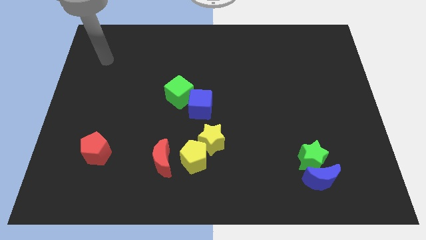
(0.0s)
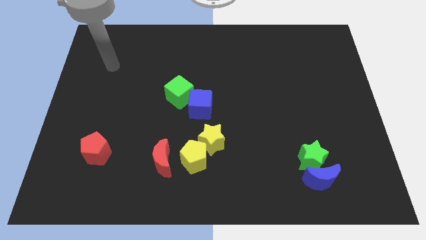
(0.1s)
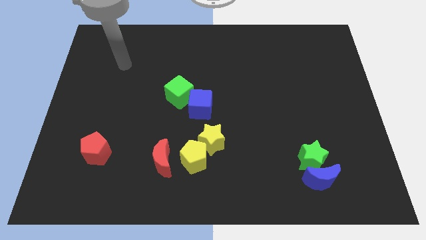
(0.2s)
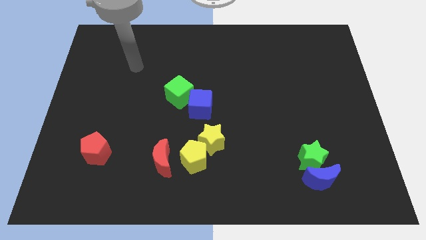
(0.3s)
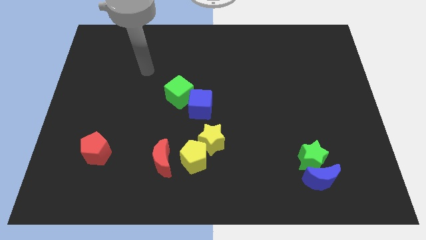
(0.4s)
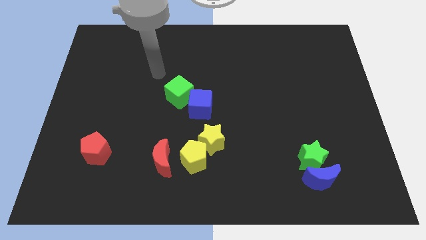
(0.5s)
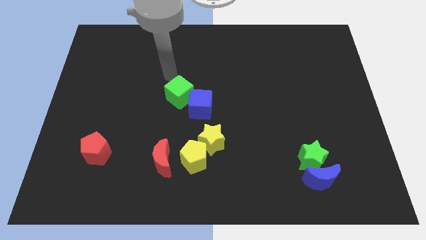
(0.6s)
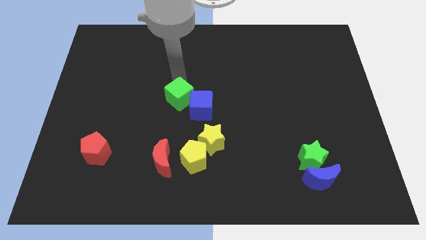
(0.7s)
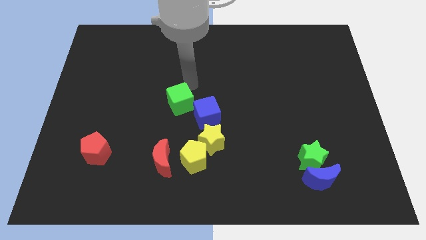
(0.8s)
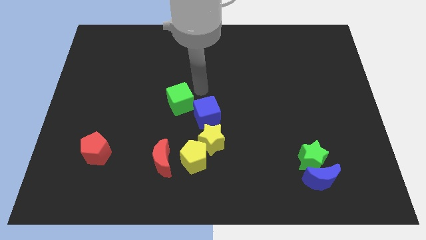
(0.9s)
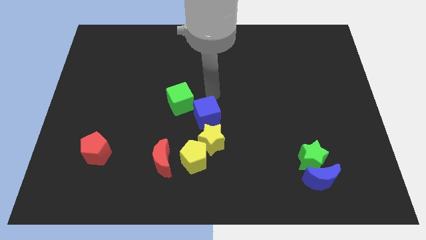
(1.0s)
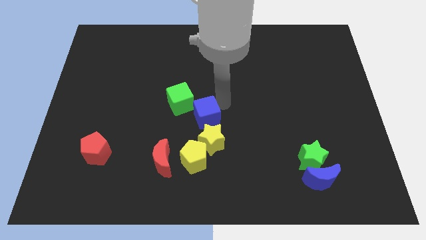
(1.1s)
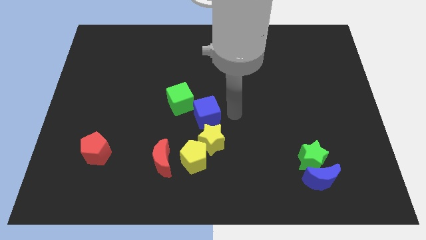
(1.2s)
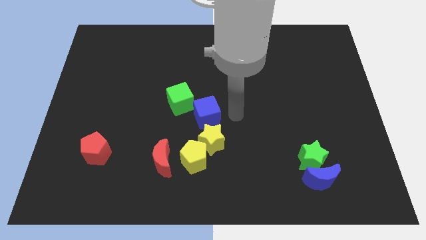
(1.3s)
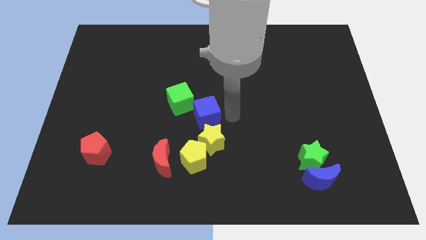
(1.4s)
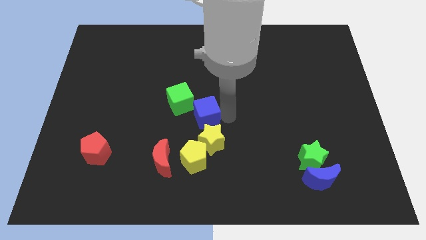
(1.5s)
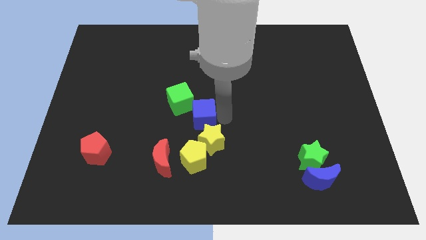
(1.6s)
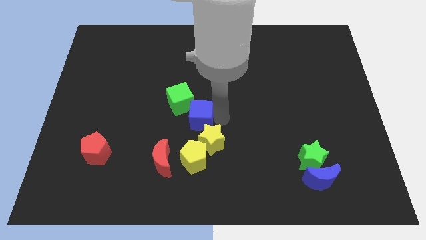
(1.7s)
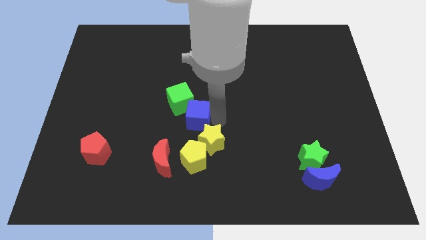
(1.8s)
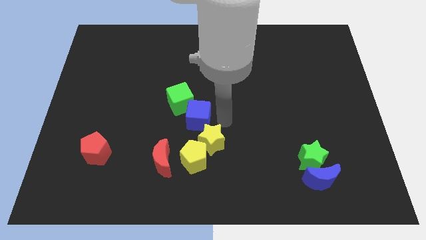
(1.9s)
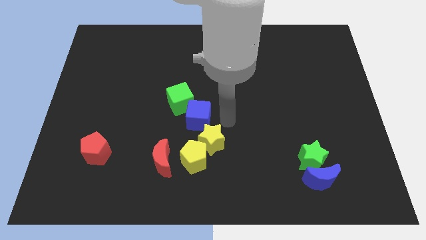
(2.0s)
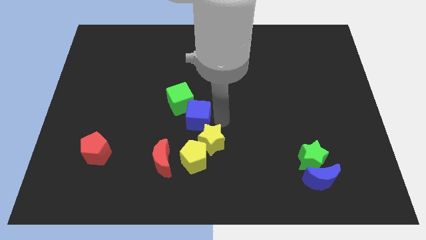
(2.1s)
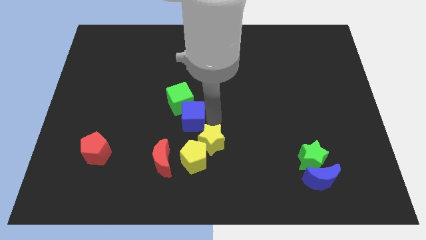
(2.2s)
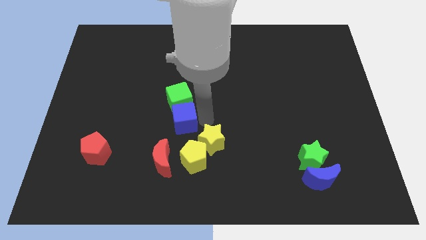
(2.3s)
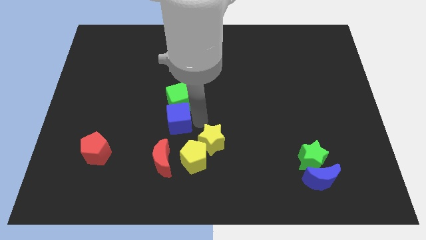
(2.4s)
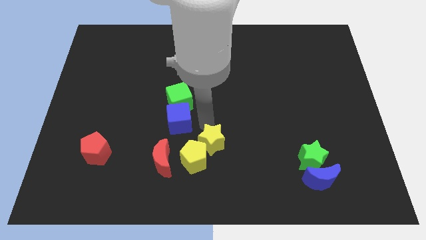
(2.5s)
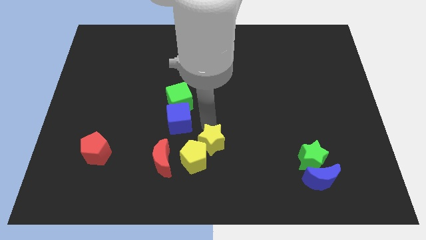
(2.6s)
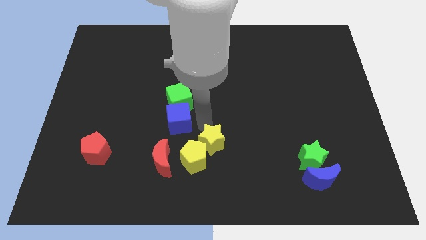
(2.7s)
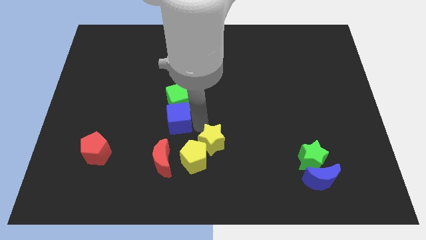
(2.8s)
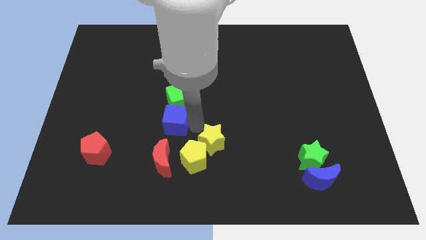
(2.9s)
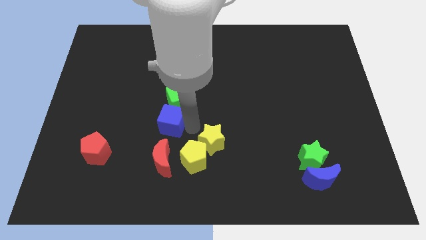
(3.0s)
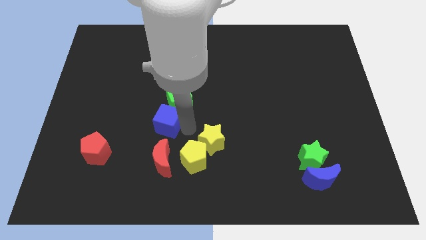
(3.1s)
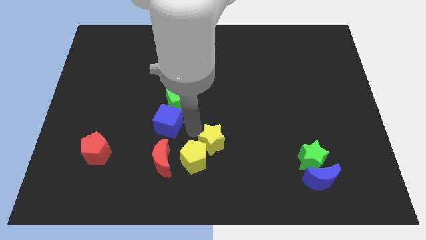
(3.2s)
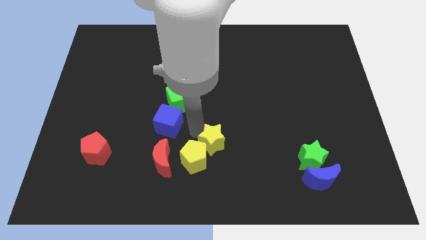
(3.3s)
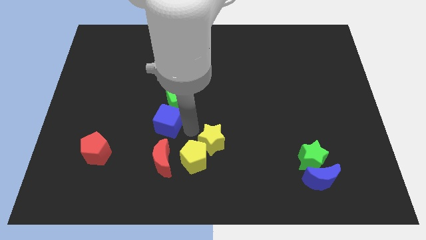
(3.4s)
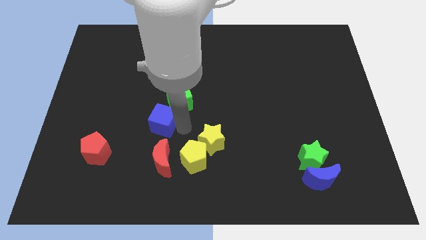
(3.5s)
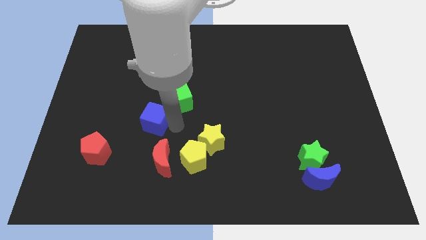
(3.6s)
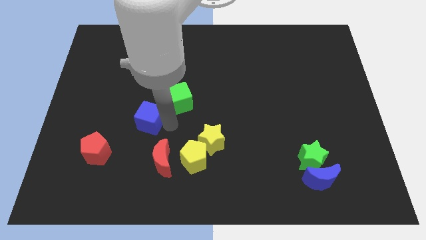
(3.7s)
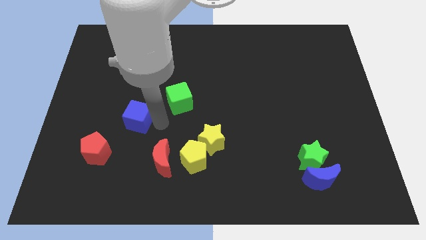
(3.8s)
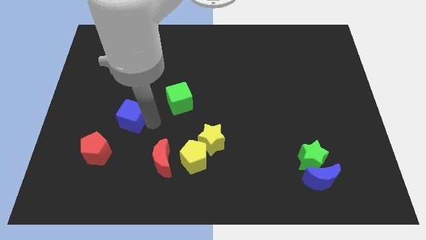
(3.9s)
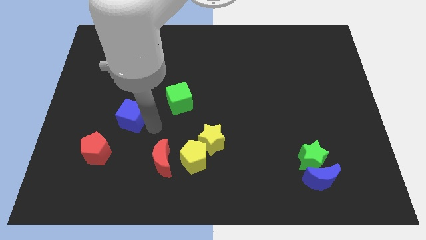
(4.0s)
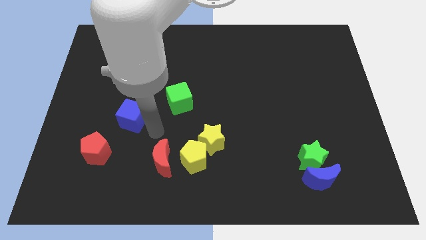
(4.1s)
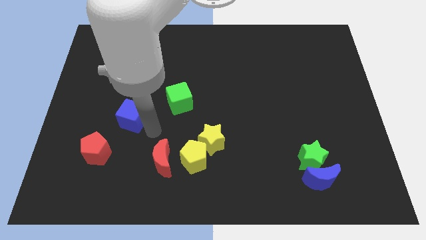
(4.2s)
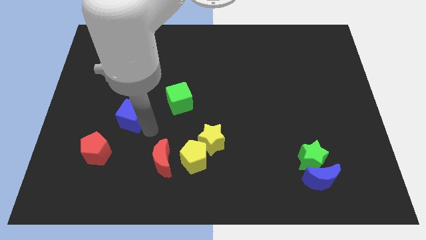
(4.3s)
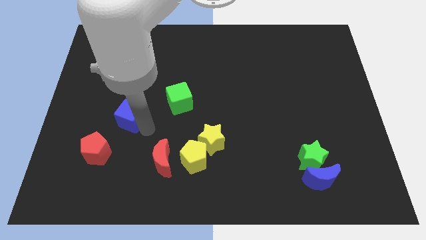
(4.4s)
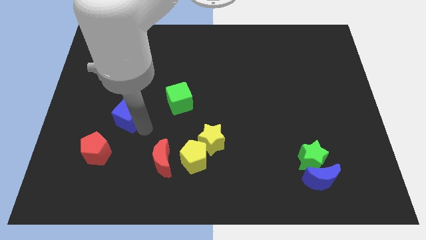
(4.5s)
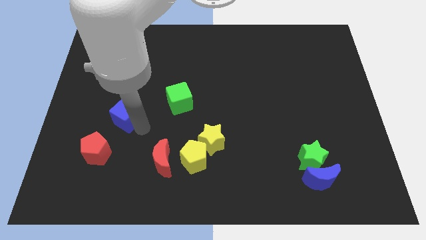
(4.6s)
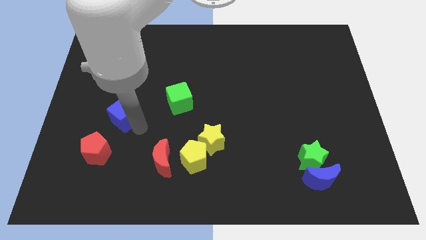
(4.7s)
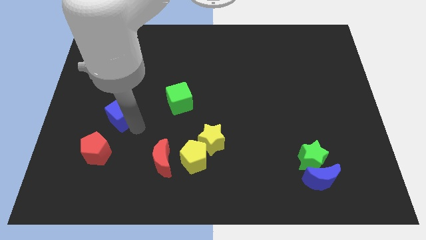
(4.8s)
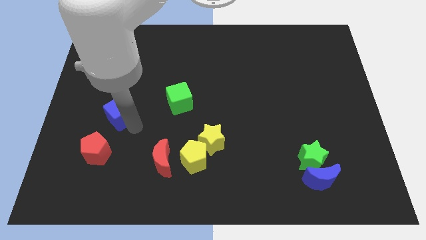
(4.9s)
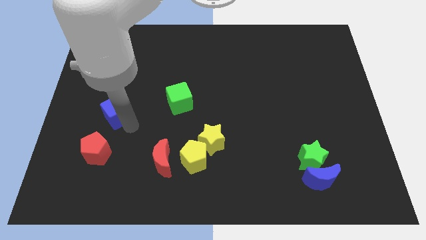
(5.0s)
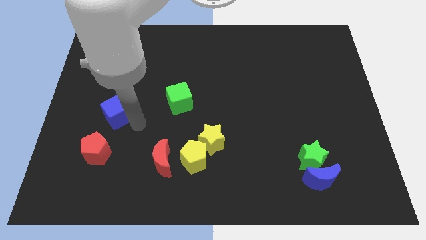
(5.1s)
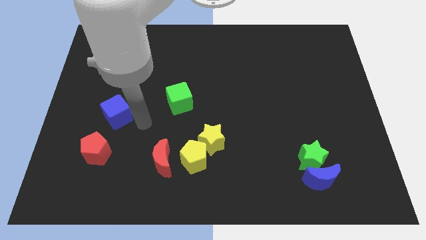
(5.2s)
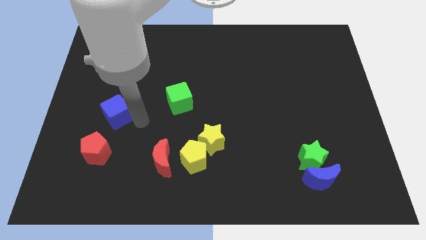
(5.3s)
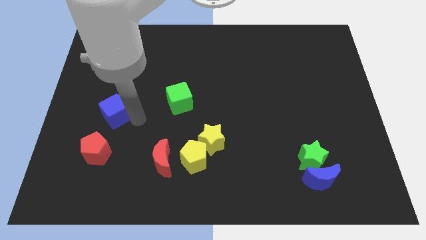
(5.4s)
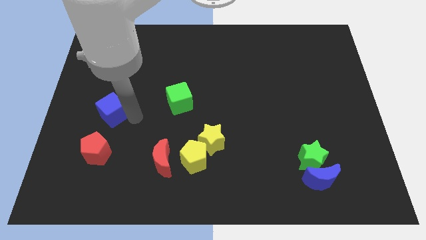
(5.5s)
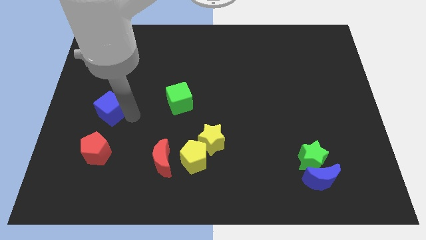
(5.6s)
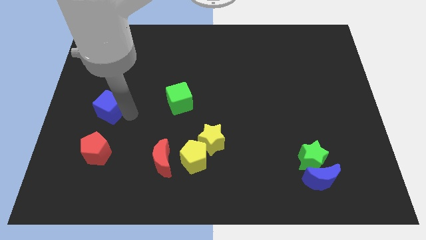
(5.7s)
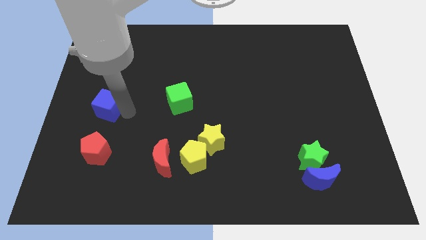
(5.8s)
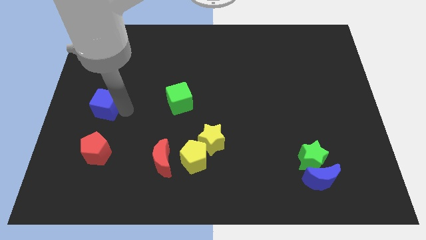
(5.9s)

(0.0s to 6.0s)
move the blue cube to the center left
